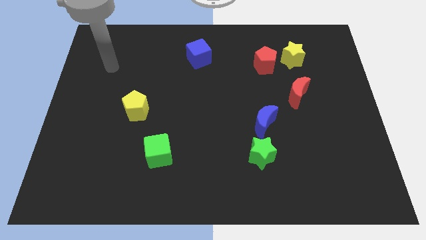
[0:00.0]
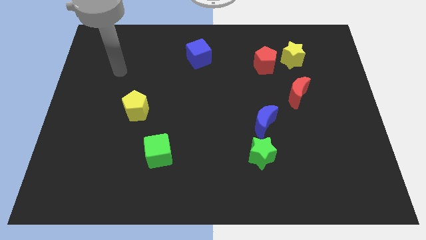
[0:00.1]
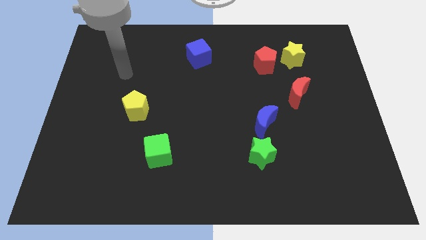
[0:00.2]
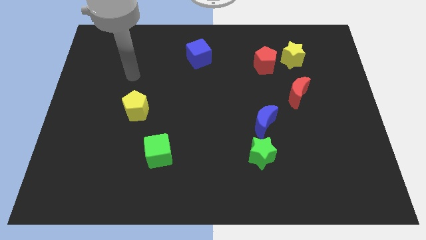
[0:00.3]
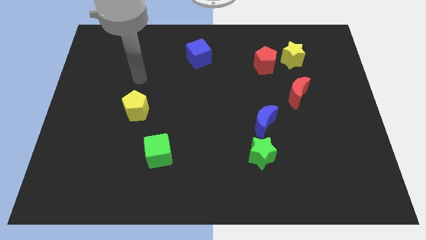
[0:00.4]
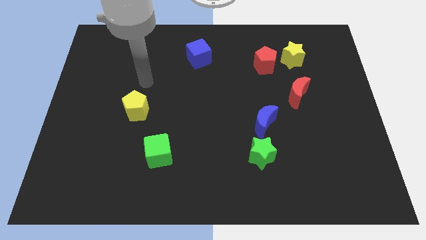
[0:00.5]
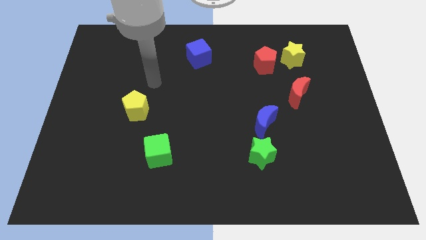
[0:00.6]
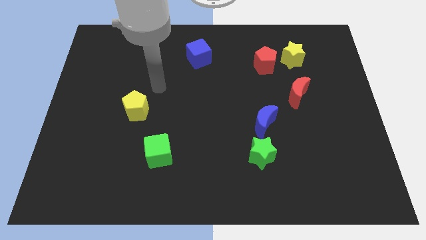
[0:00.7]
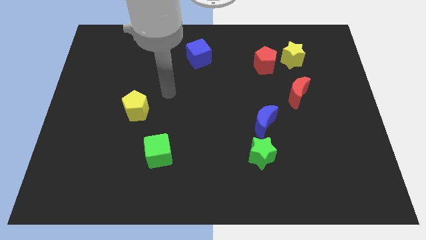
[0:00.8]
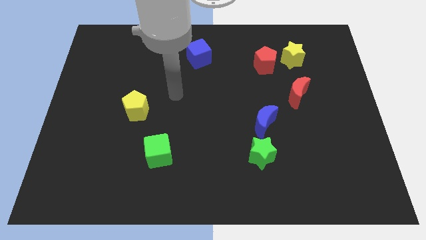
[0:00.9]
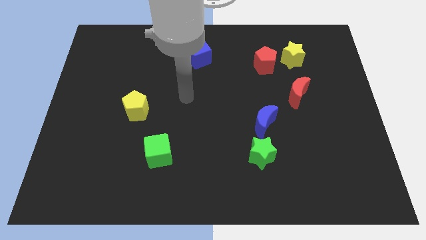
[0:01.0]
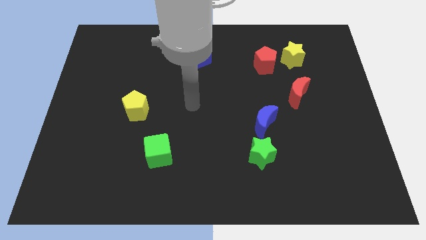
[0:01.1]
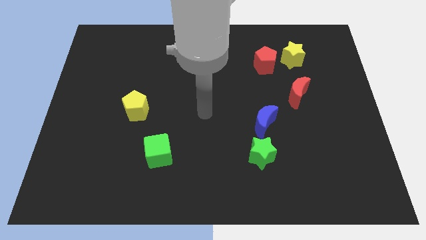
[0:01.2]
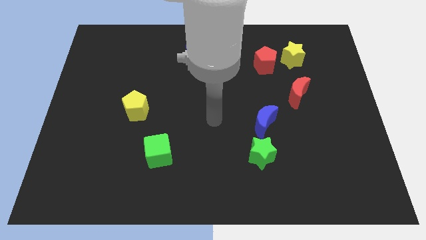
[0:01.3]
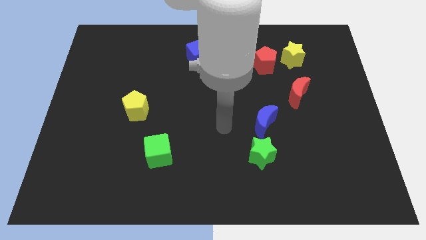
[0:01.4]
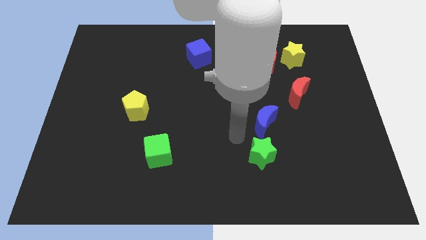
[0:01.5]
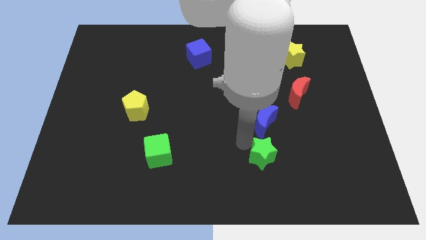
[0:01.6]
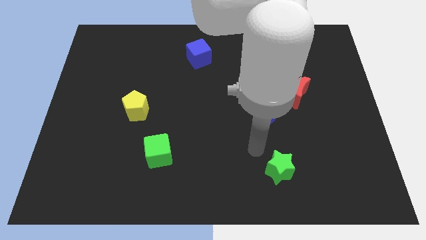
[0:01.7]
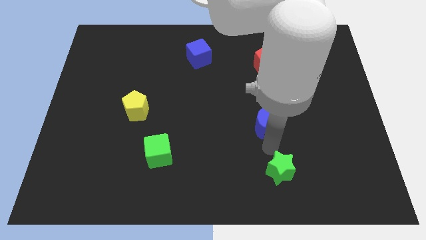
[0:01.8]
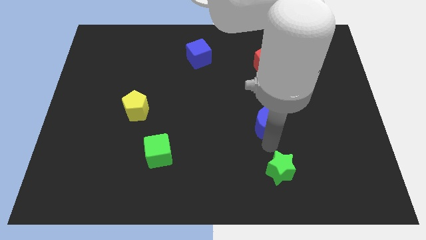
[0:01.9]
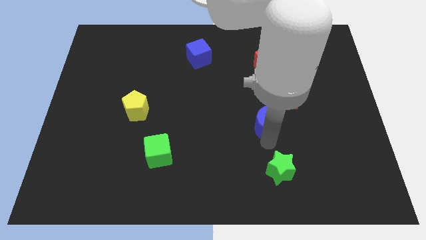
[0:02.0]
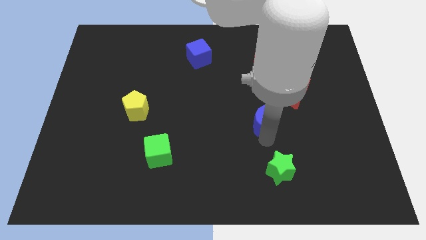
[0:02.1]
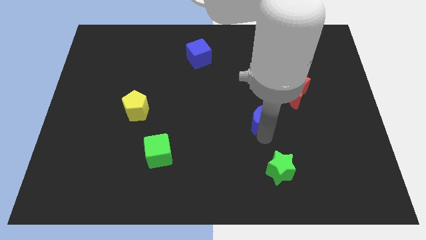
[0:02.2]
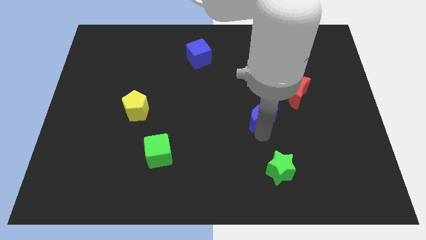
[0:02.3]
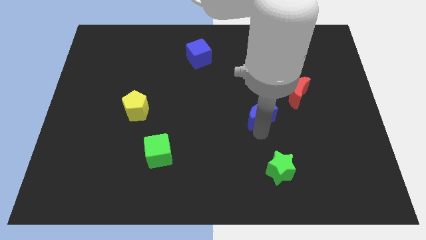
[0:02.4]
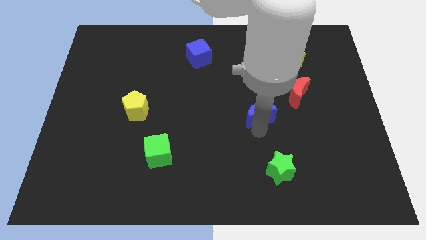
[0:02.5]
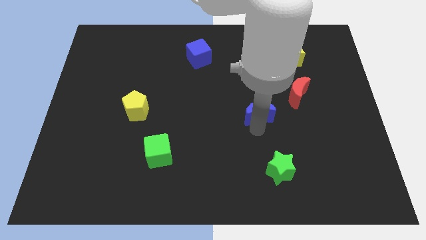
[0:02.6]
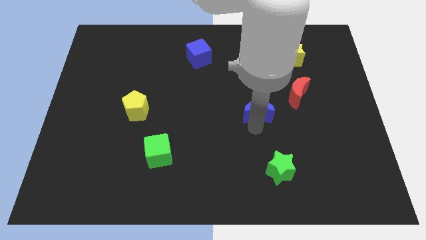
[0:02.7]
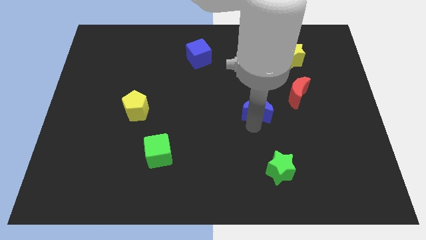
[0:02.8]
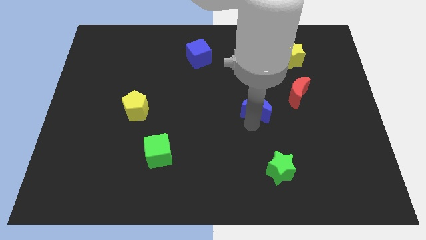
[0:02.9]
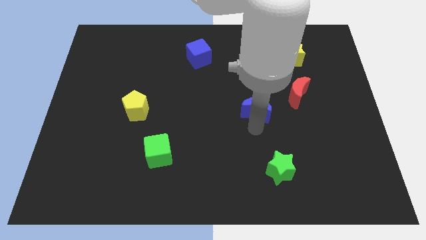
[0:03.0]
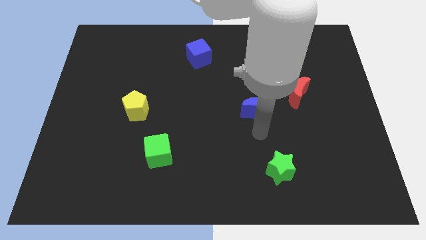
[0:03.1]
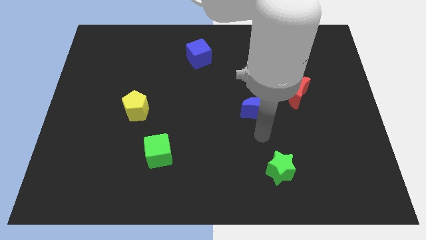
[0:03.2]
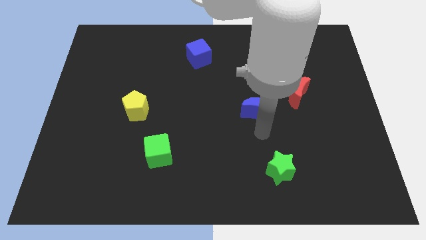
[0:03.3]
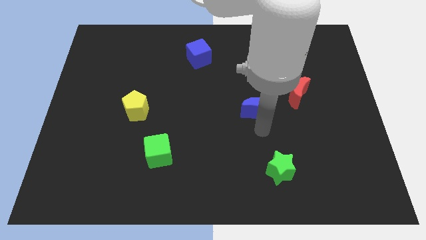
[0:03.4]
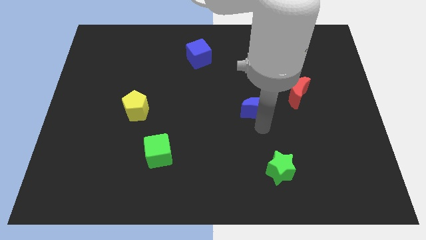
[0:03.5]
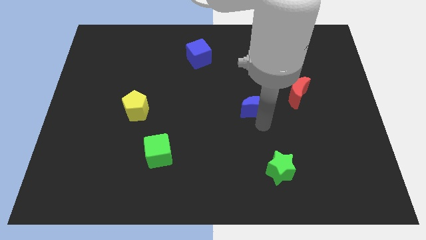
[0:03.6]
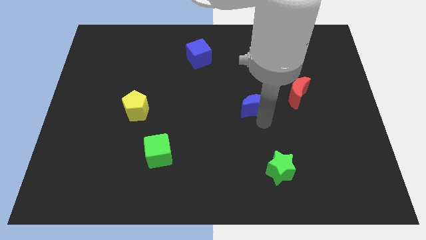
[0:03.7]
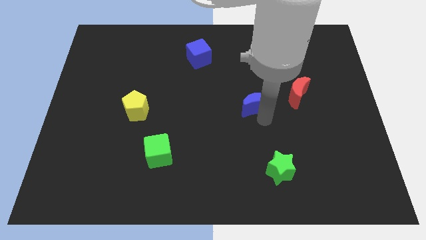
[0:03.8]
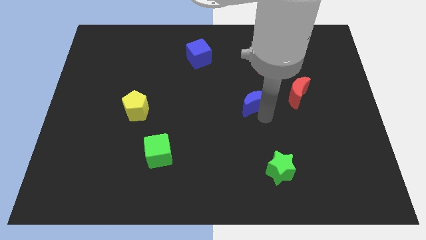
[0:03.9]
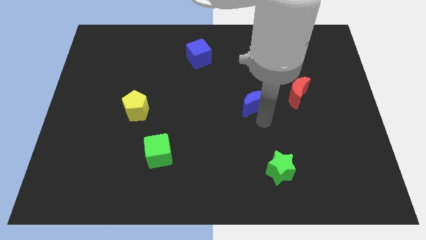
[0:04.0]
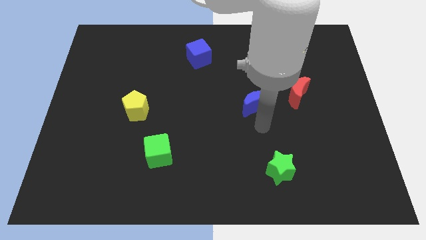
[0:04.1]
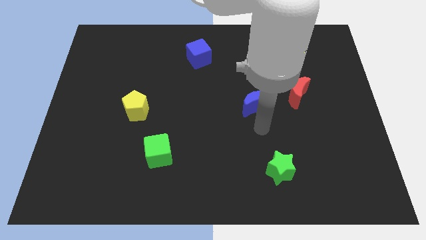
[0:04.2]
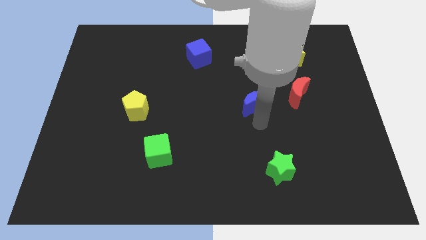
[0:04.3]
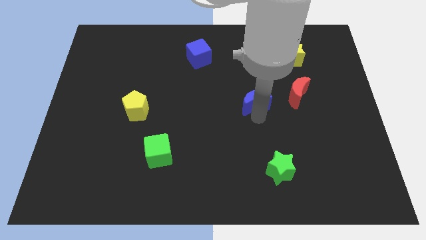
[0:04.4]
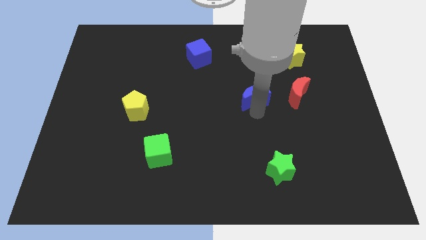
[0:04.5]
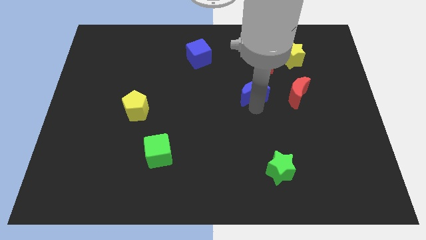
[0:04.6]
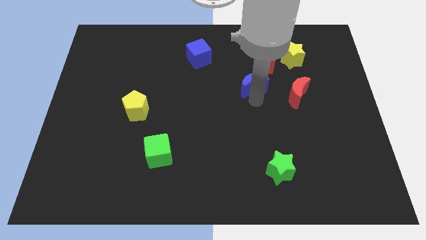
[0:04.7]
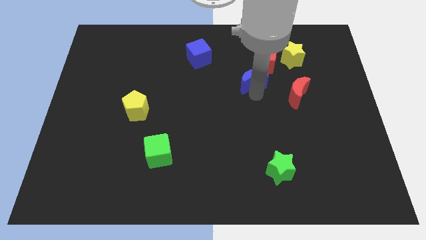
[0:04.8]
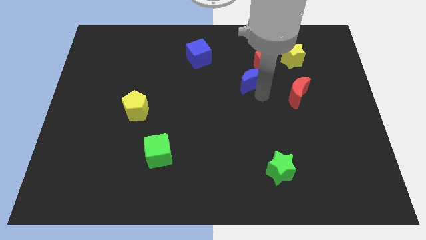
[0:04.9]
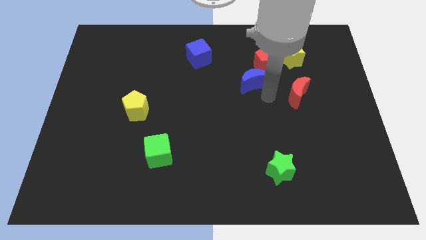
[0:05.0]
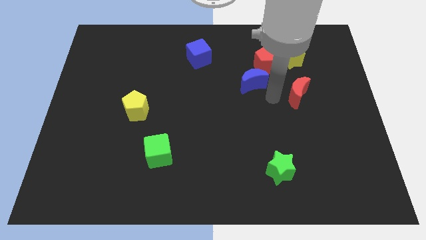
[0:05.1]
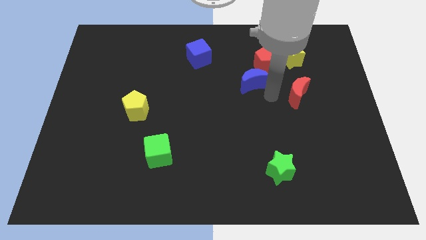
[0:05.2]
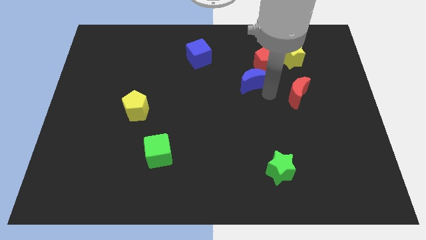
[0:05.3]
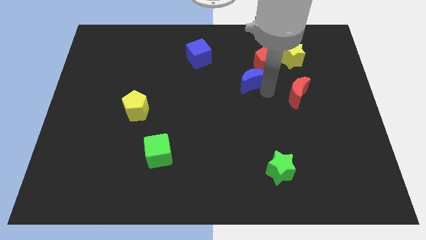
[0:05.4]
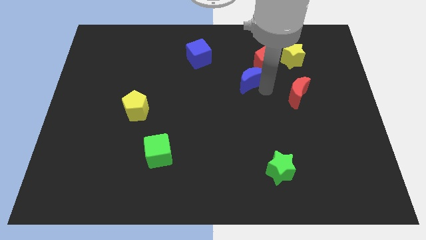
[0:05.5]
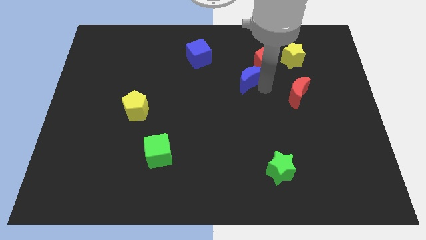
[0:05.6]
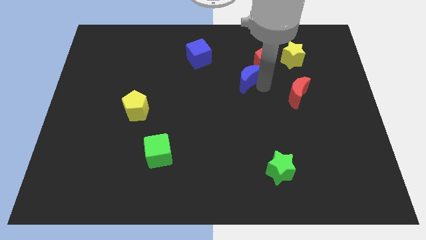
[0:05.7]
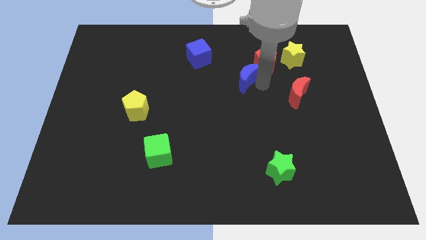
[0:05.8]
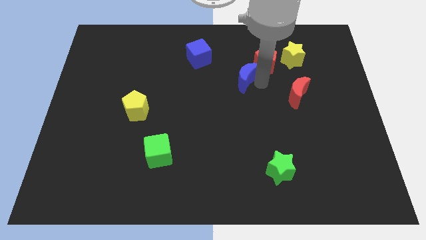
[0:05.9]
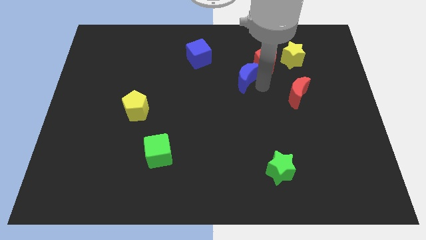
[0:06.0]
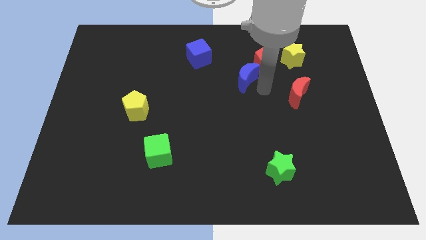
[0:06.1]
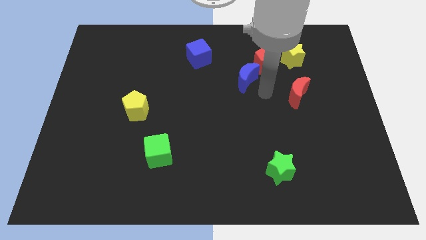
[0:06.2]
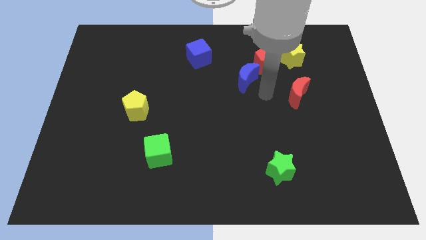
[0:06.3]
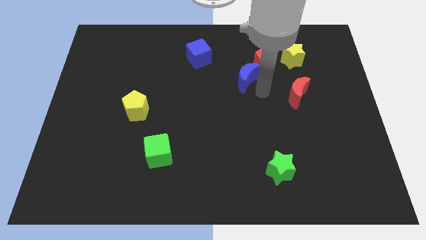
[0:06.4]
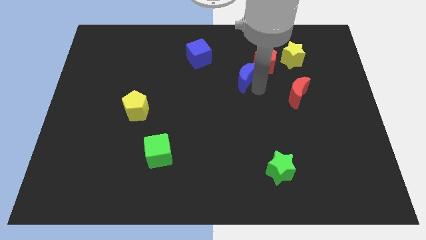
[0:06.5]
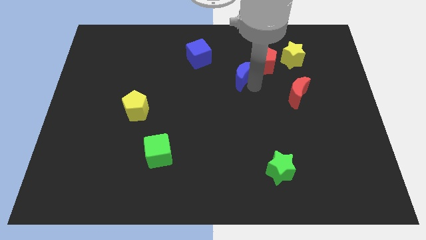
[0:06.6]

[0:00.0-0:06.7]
move the blue moon to the left side of the red pentagon

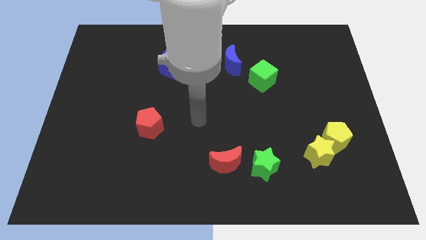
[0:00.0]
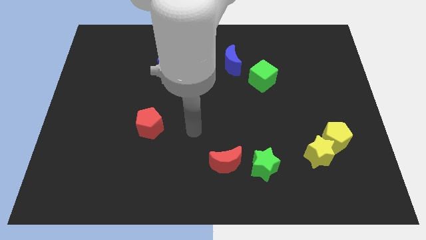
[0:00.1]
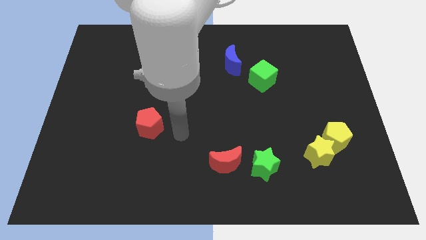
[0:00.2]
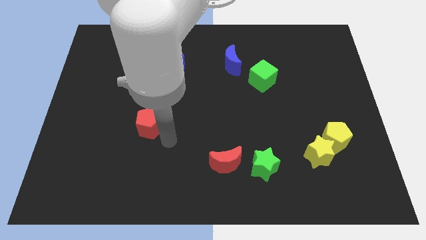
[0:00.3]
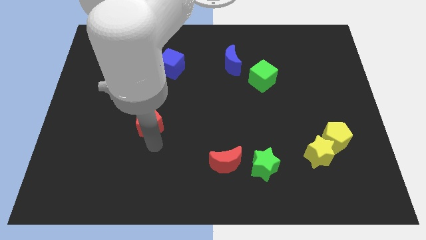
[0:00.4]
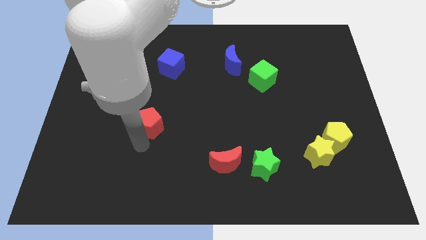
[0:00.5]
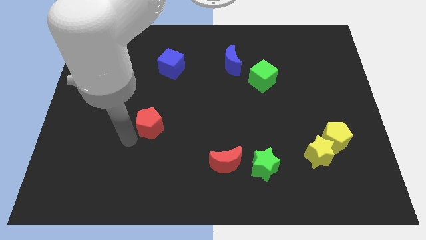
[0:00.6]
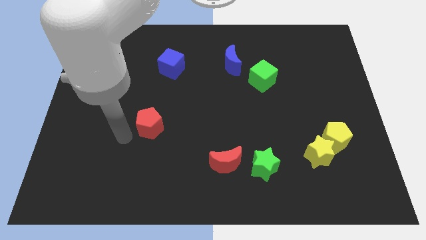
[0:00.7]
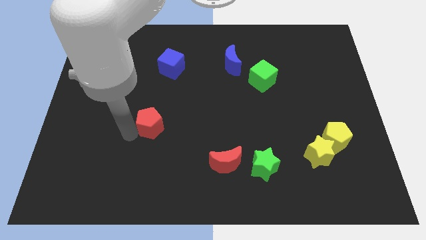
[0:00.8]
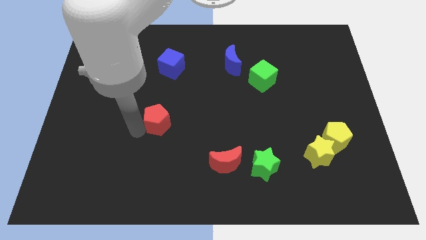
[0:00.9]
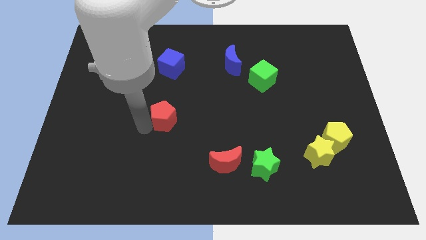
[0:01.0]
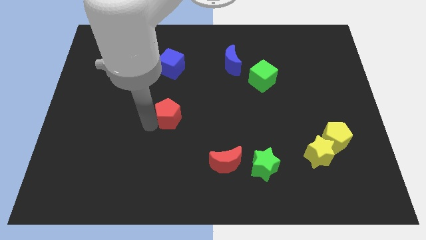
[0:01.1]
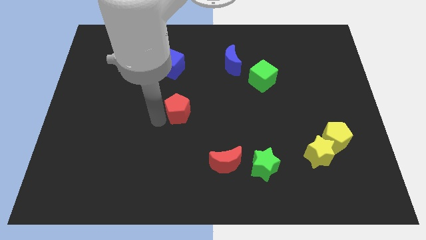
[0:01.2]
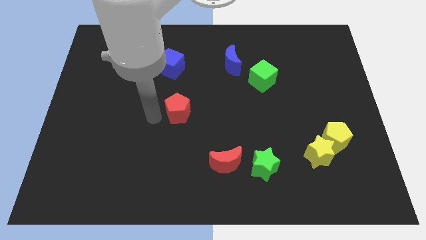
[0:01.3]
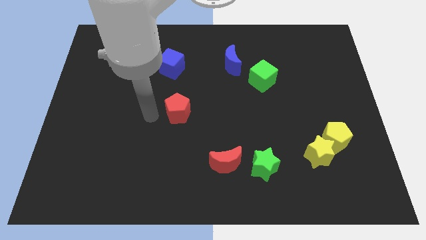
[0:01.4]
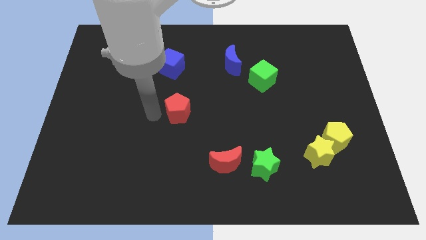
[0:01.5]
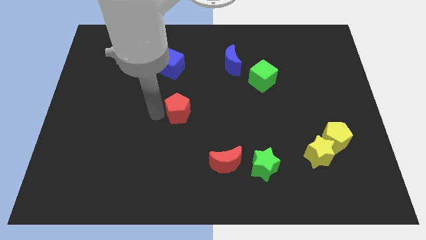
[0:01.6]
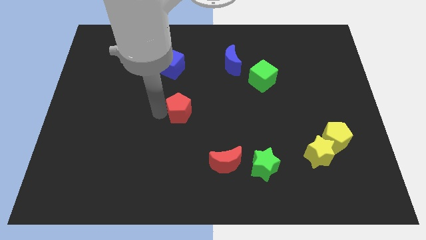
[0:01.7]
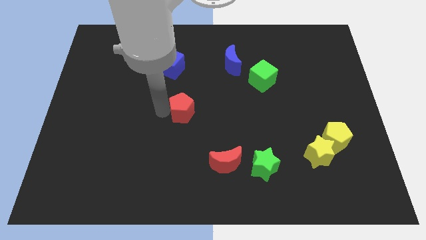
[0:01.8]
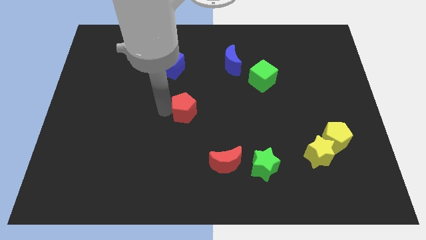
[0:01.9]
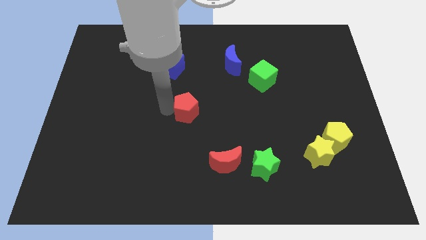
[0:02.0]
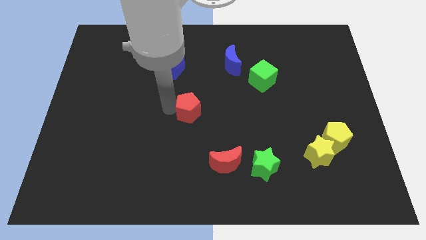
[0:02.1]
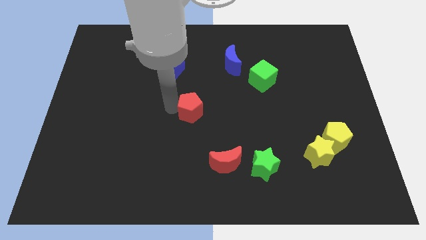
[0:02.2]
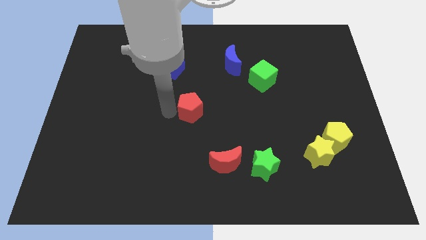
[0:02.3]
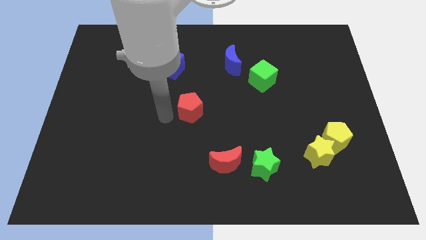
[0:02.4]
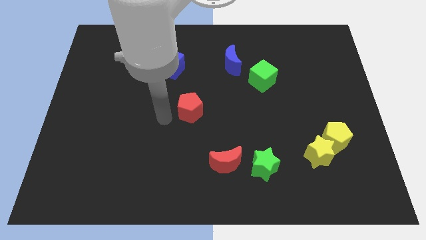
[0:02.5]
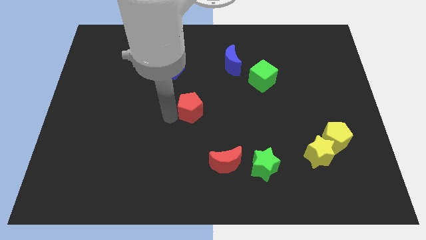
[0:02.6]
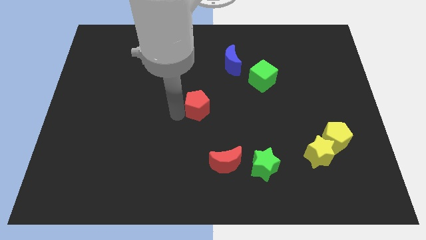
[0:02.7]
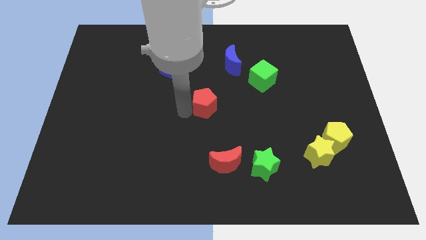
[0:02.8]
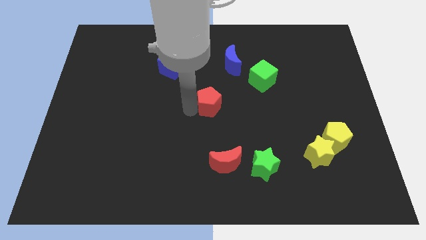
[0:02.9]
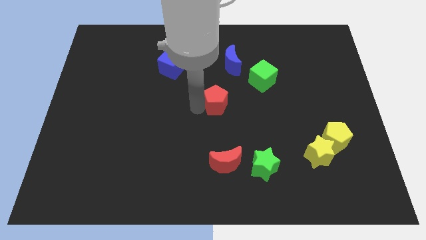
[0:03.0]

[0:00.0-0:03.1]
put the red pentagon below the blue moon
